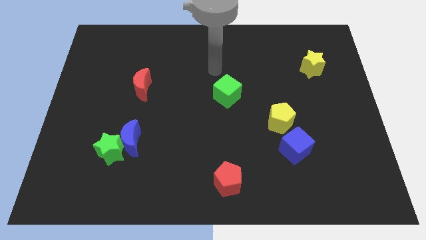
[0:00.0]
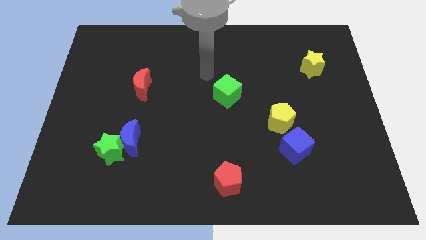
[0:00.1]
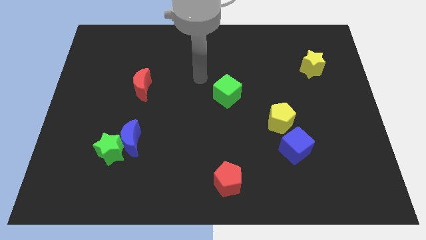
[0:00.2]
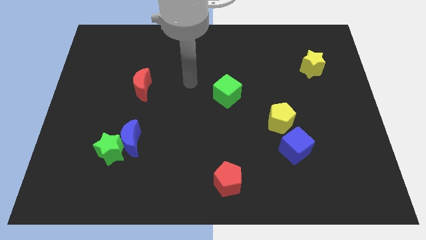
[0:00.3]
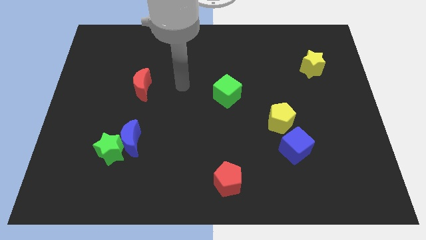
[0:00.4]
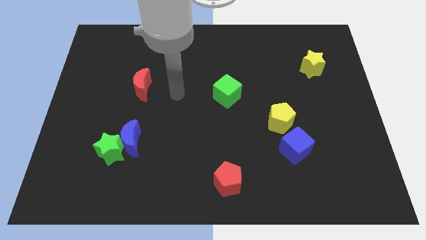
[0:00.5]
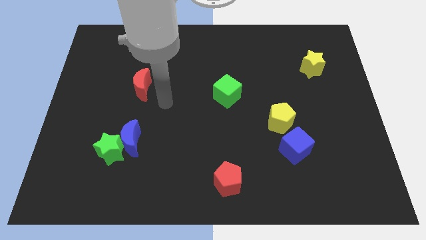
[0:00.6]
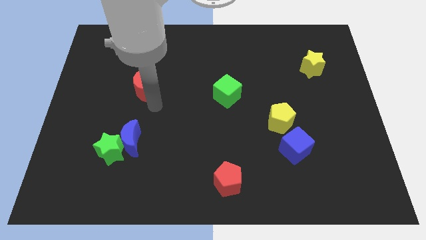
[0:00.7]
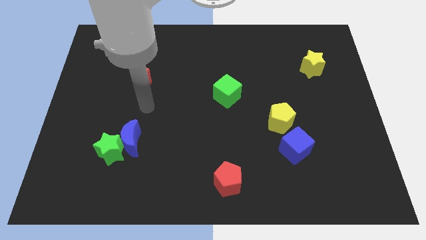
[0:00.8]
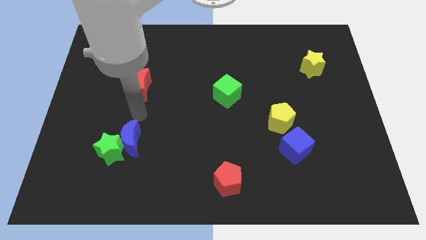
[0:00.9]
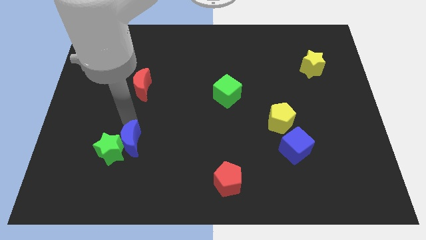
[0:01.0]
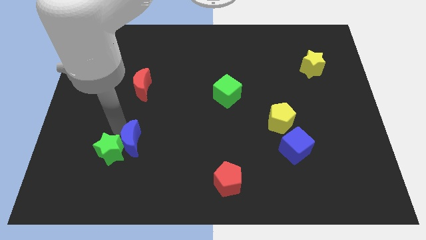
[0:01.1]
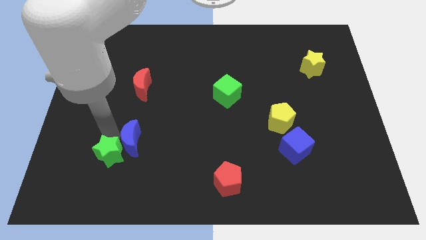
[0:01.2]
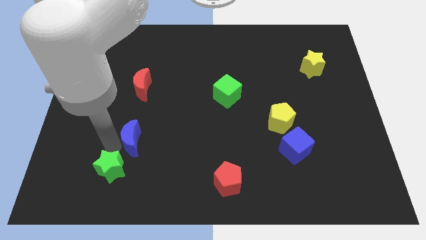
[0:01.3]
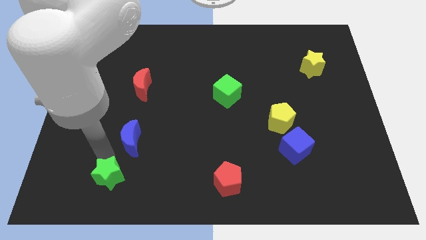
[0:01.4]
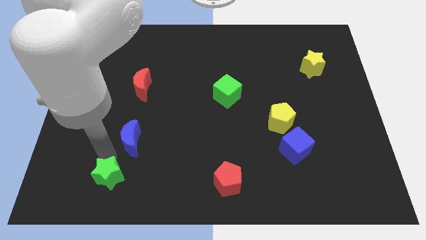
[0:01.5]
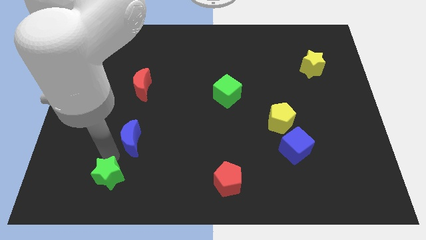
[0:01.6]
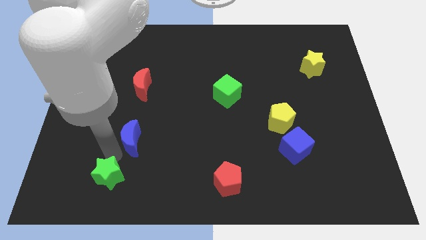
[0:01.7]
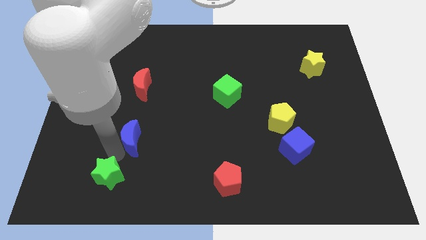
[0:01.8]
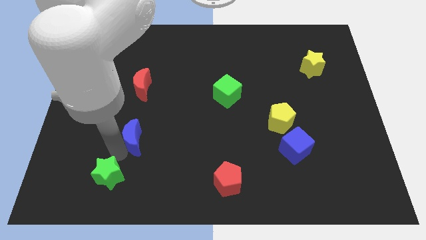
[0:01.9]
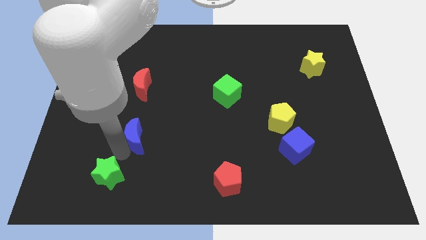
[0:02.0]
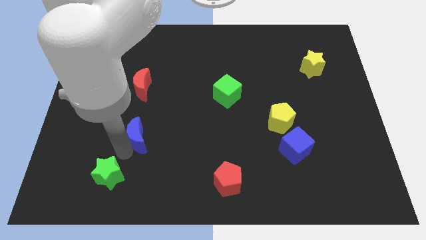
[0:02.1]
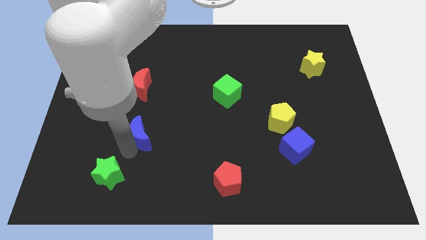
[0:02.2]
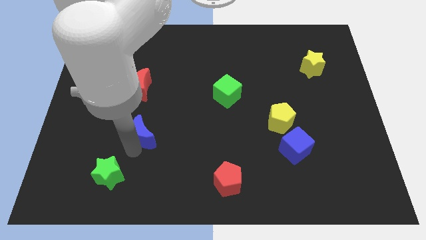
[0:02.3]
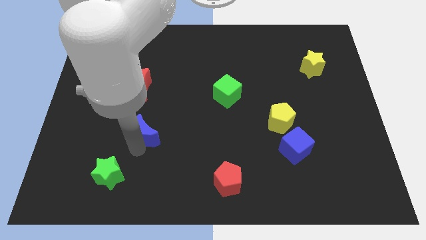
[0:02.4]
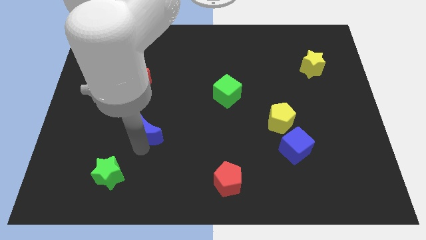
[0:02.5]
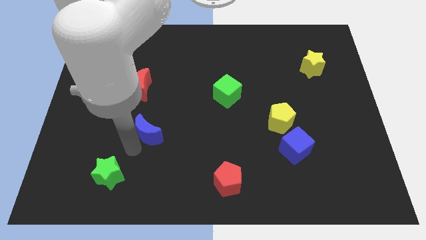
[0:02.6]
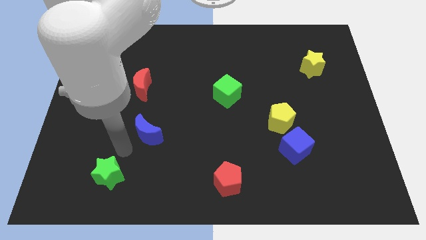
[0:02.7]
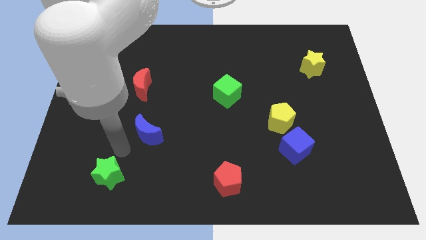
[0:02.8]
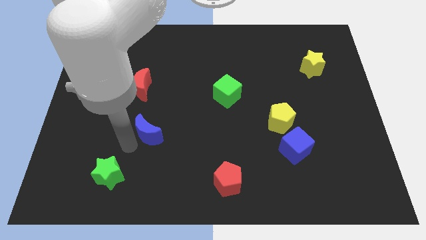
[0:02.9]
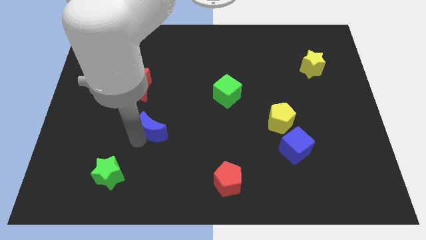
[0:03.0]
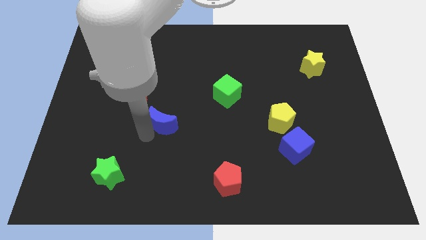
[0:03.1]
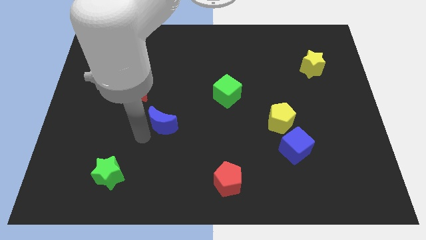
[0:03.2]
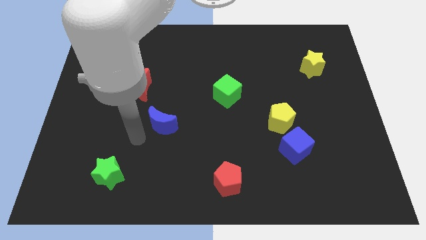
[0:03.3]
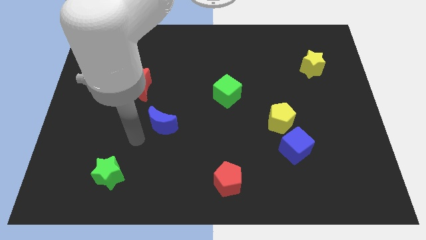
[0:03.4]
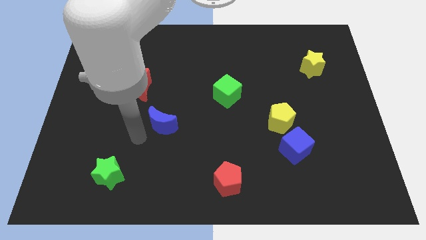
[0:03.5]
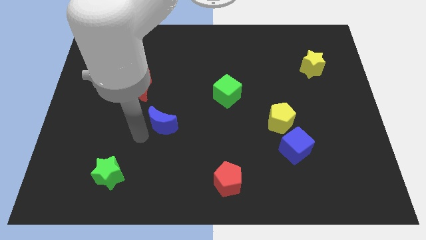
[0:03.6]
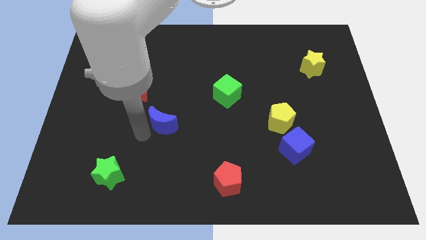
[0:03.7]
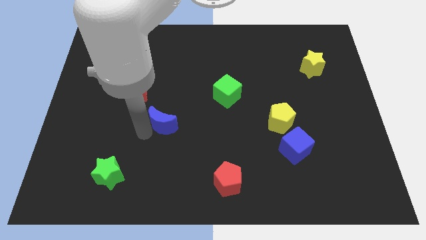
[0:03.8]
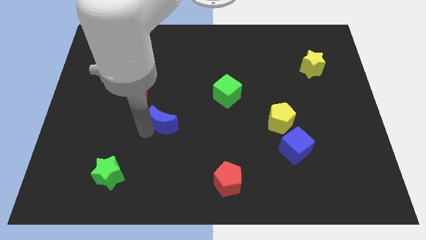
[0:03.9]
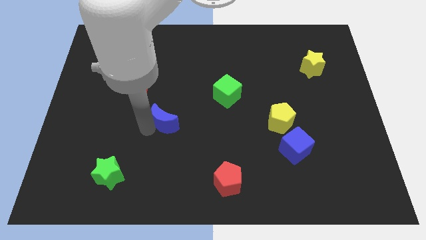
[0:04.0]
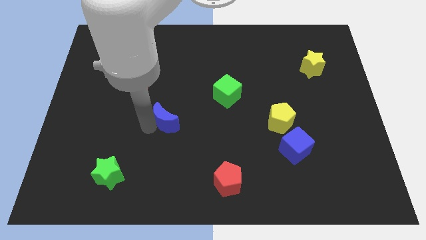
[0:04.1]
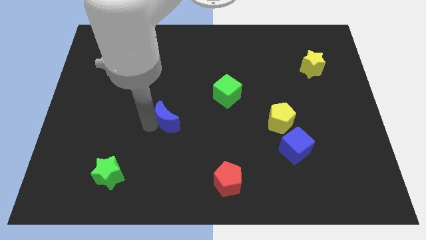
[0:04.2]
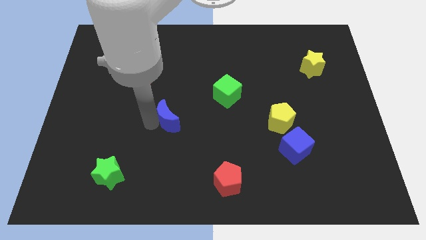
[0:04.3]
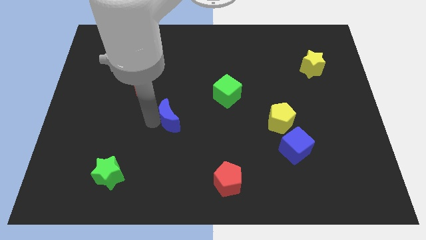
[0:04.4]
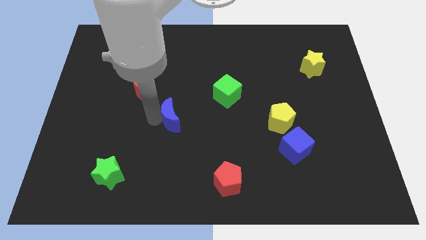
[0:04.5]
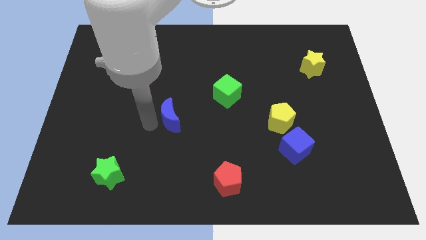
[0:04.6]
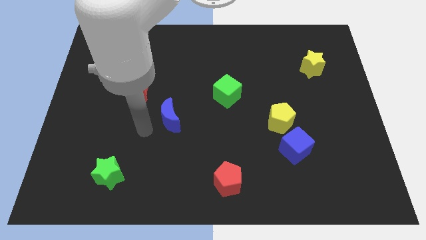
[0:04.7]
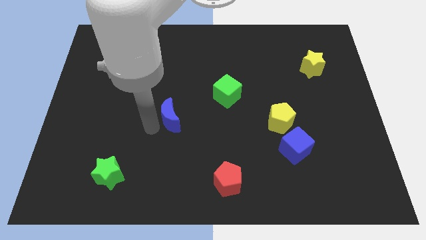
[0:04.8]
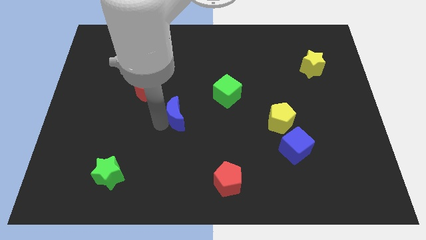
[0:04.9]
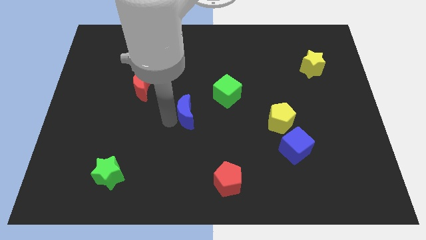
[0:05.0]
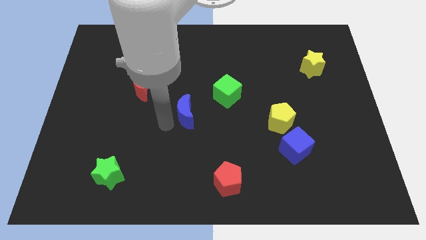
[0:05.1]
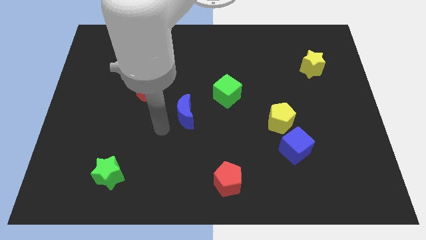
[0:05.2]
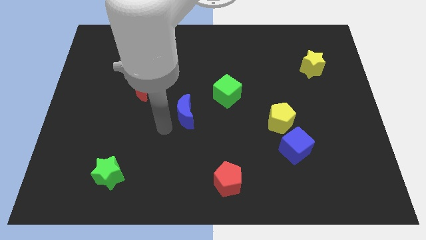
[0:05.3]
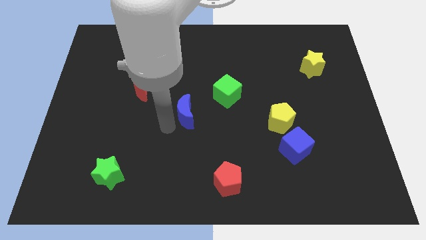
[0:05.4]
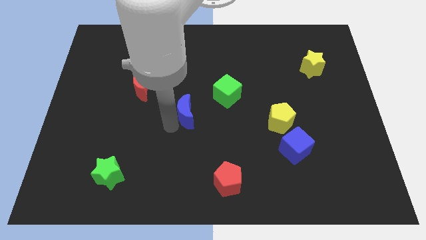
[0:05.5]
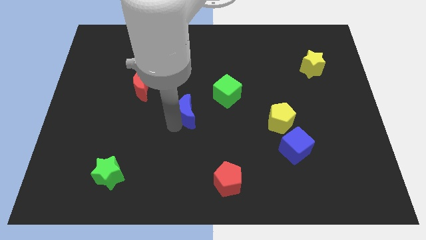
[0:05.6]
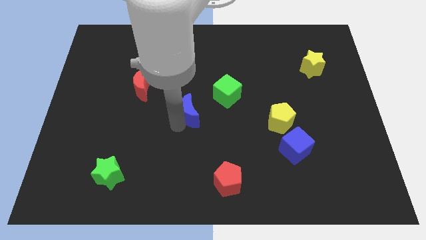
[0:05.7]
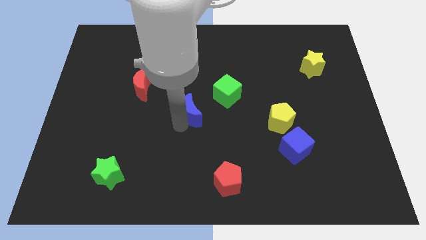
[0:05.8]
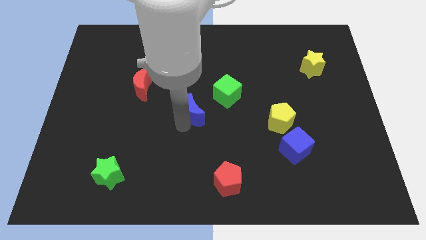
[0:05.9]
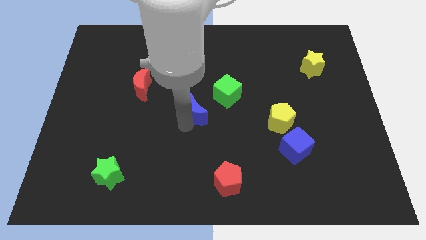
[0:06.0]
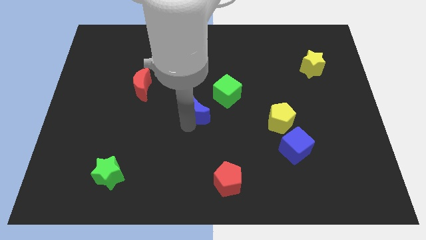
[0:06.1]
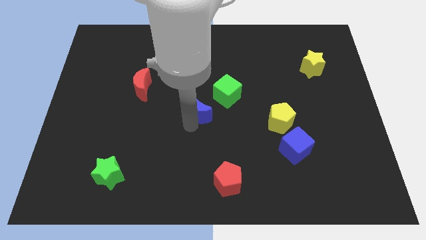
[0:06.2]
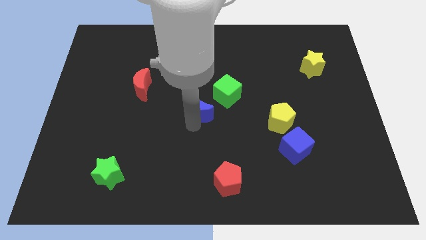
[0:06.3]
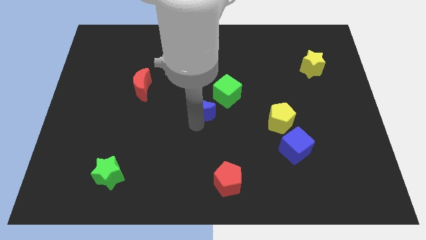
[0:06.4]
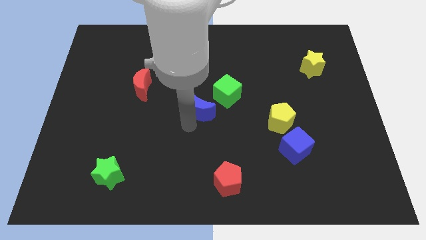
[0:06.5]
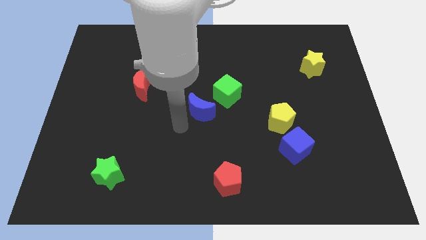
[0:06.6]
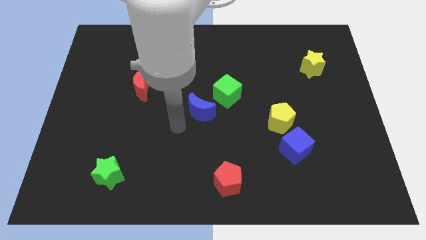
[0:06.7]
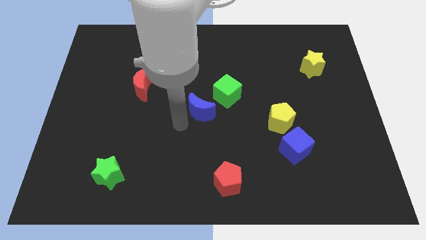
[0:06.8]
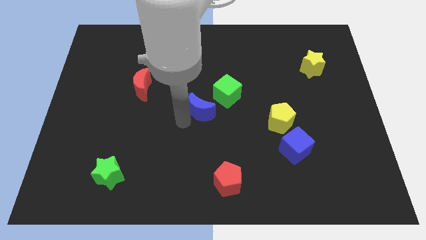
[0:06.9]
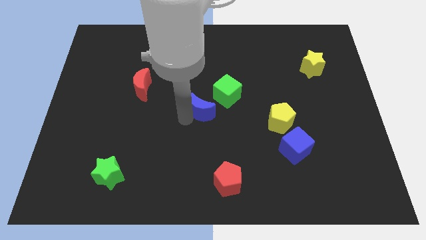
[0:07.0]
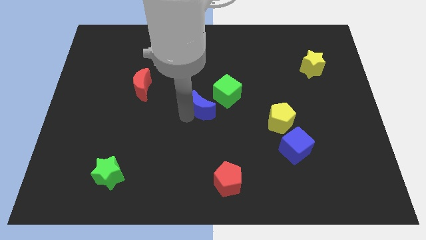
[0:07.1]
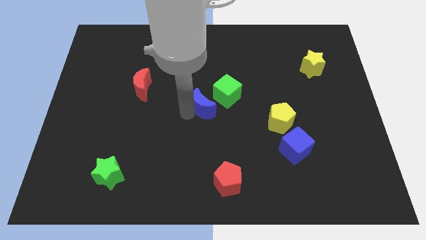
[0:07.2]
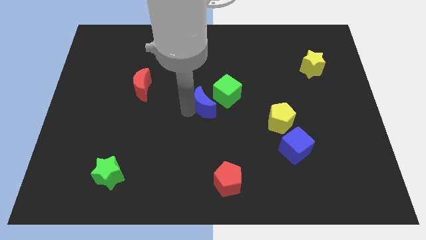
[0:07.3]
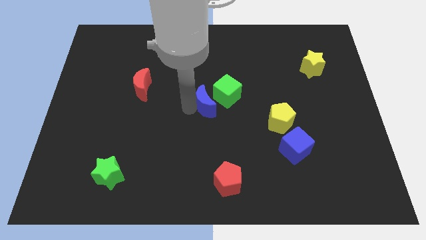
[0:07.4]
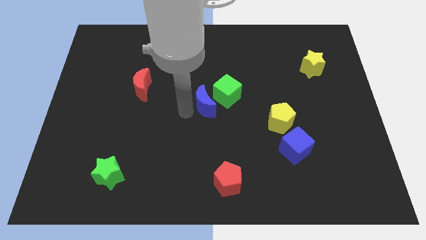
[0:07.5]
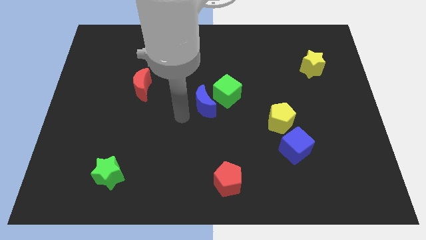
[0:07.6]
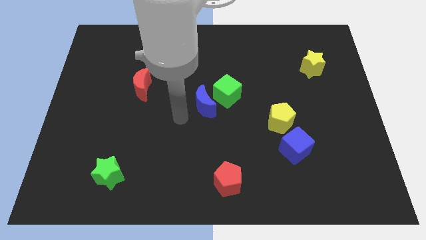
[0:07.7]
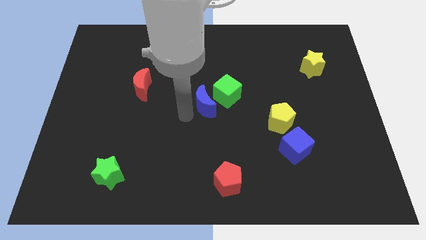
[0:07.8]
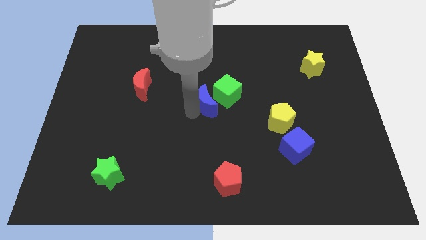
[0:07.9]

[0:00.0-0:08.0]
push the blue moon to the green cube
